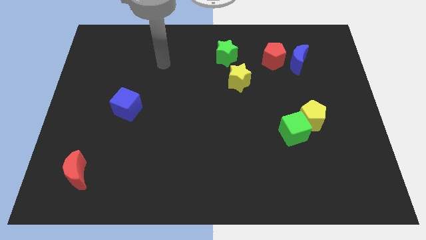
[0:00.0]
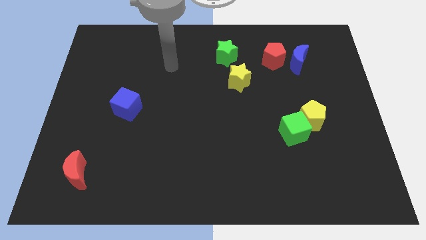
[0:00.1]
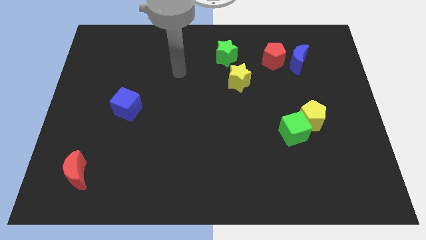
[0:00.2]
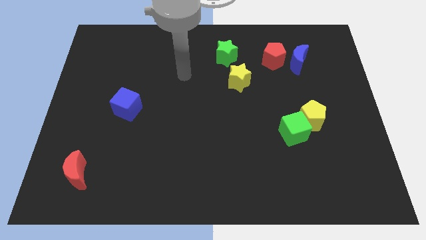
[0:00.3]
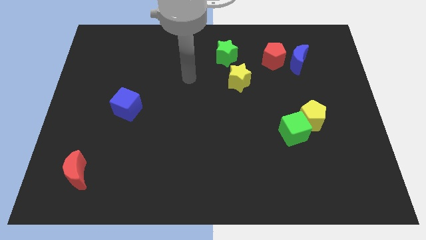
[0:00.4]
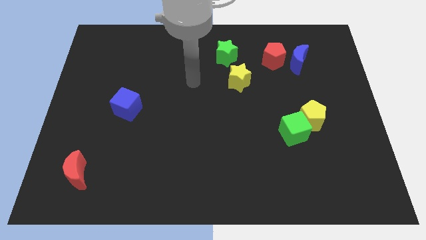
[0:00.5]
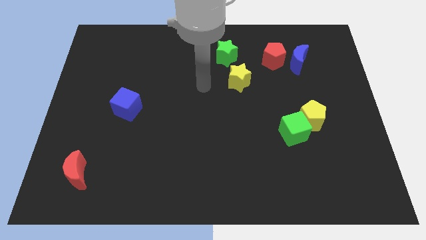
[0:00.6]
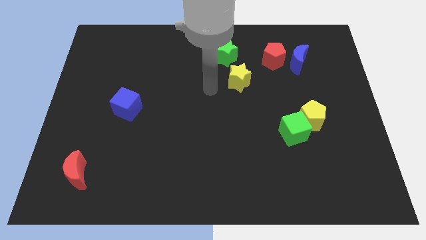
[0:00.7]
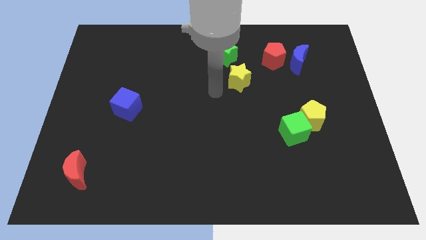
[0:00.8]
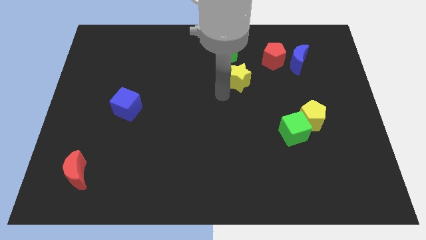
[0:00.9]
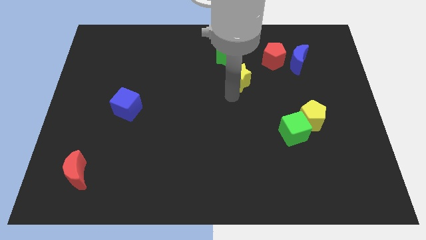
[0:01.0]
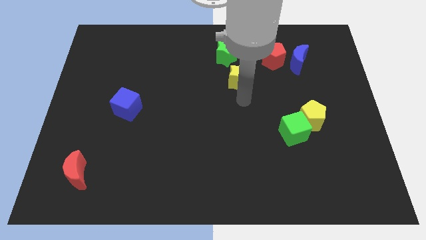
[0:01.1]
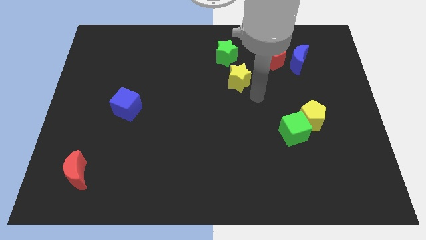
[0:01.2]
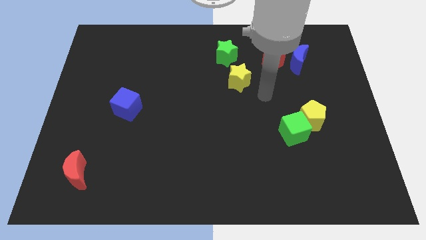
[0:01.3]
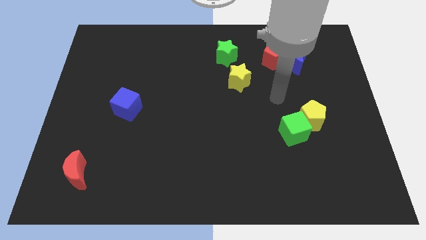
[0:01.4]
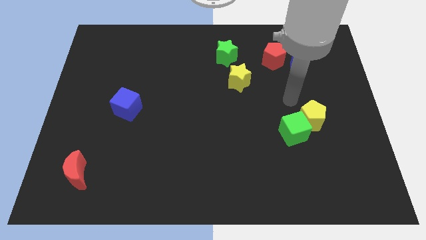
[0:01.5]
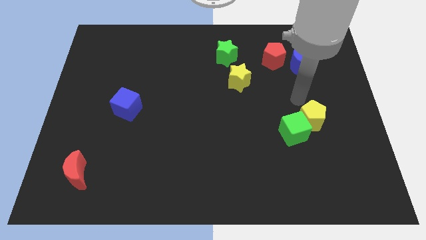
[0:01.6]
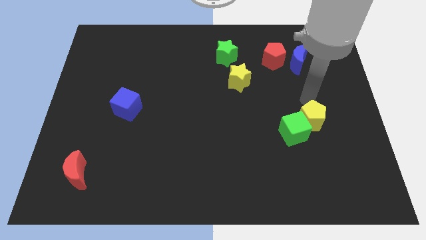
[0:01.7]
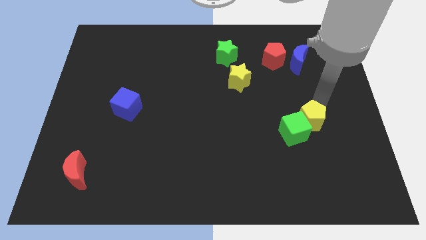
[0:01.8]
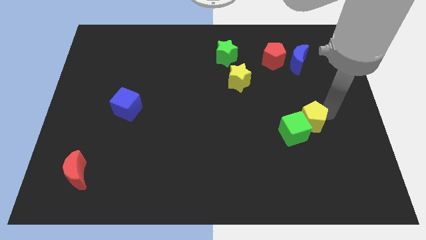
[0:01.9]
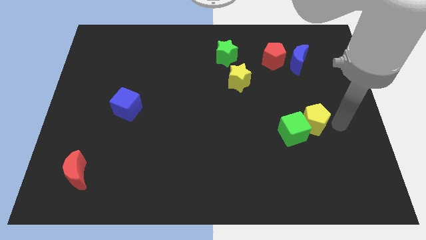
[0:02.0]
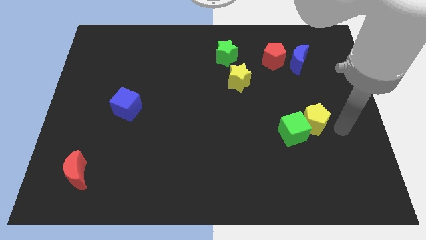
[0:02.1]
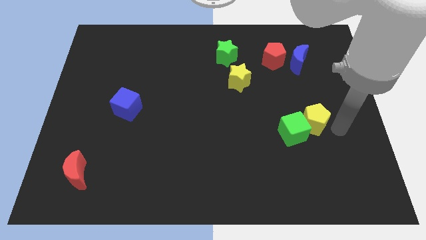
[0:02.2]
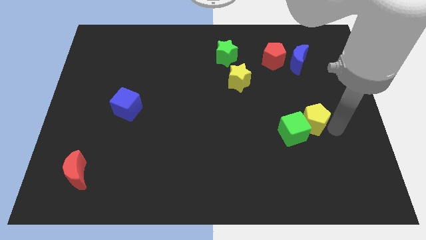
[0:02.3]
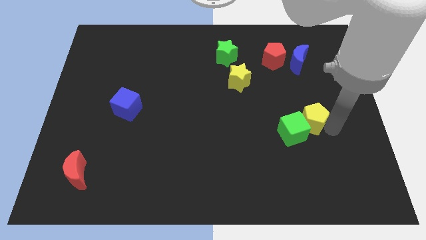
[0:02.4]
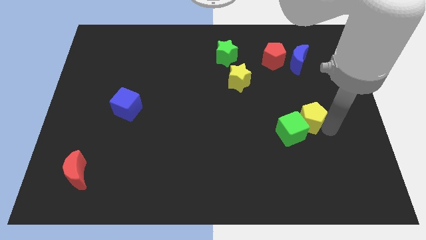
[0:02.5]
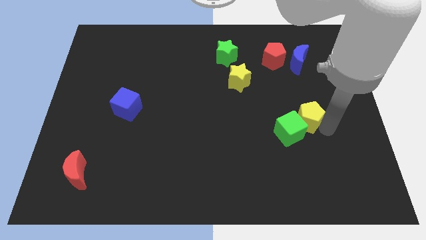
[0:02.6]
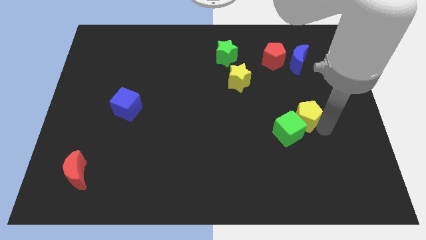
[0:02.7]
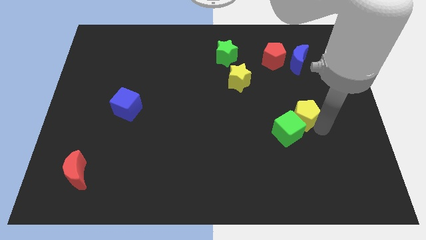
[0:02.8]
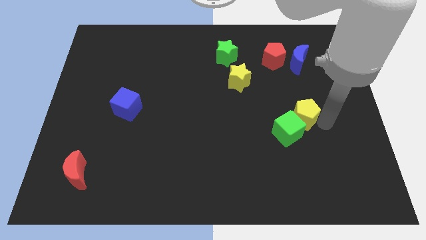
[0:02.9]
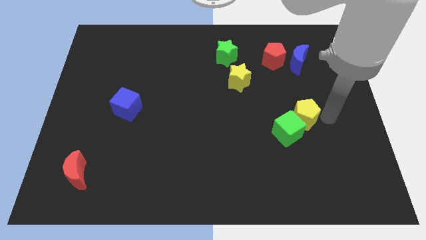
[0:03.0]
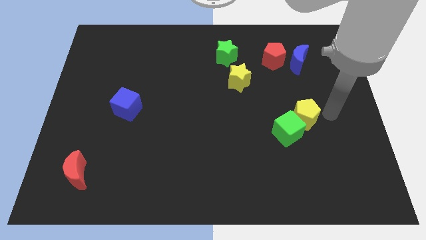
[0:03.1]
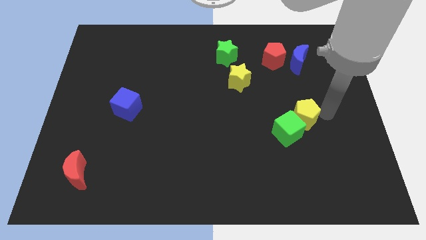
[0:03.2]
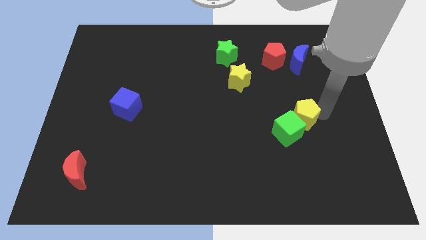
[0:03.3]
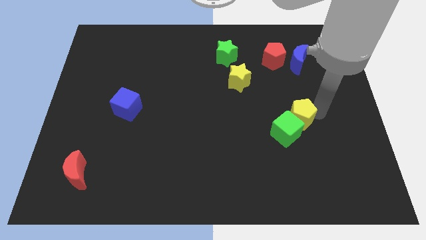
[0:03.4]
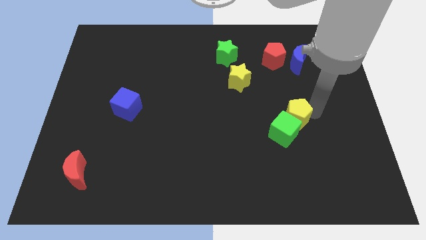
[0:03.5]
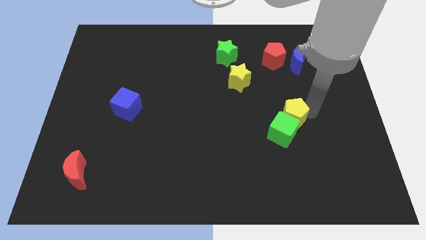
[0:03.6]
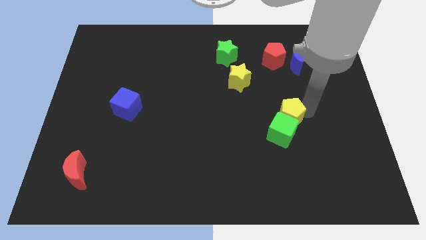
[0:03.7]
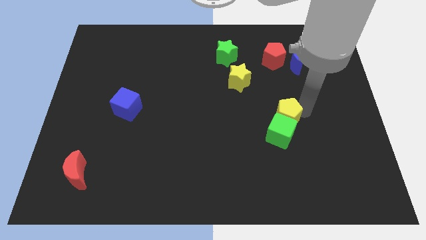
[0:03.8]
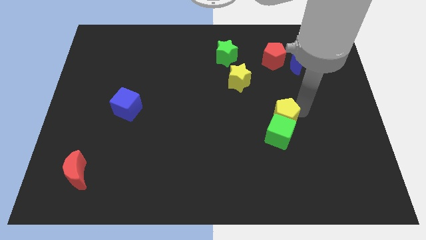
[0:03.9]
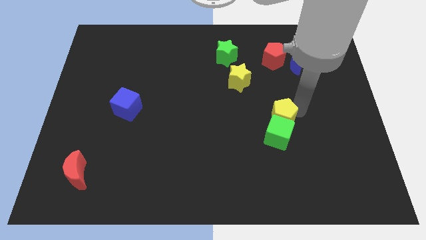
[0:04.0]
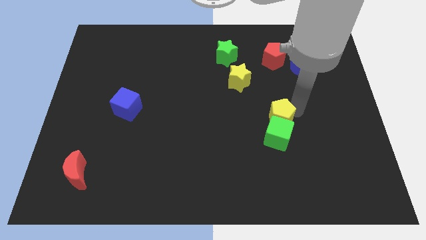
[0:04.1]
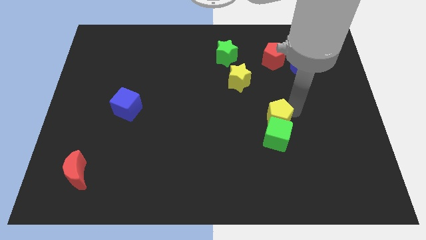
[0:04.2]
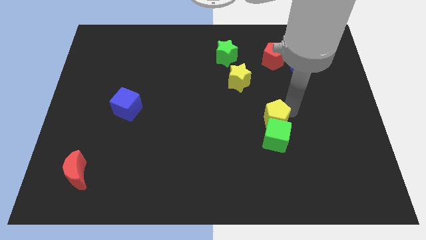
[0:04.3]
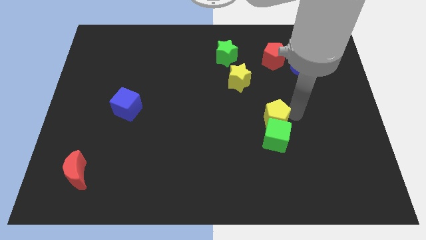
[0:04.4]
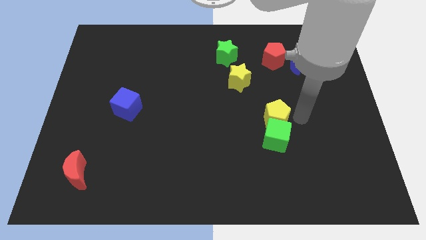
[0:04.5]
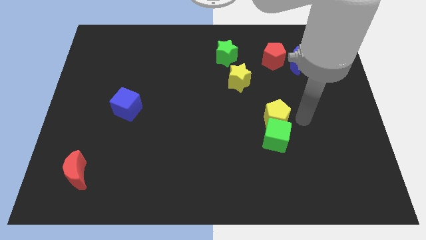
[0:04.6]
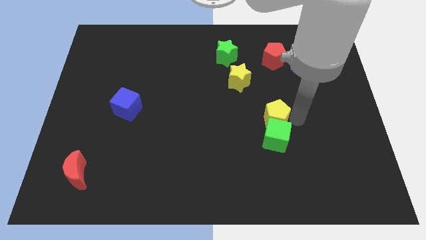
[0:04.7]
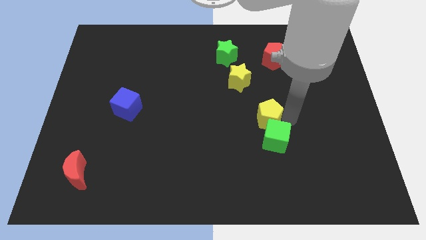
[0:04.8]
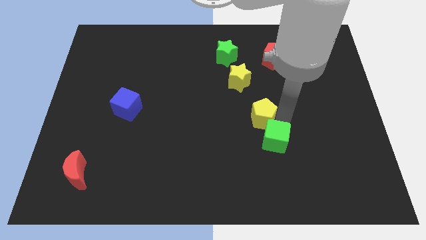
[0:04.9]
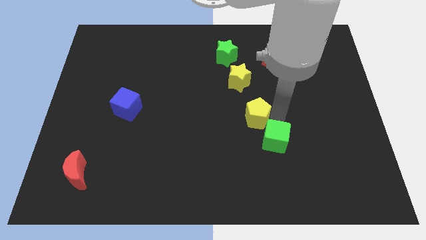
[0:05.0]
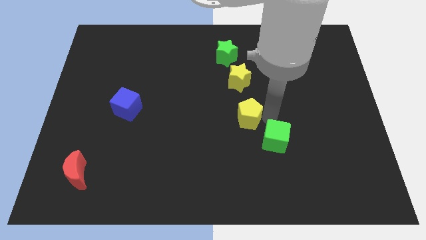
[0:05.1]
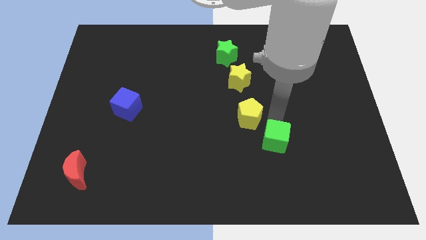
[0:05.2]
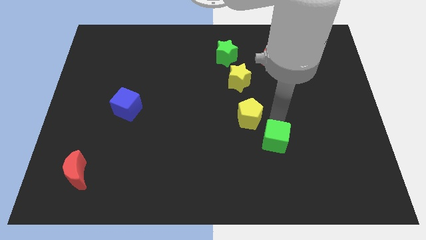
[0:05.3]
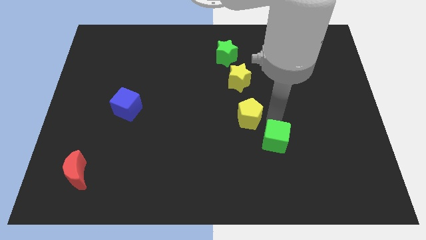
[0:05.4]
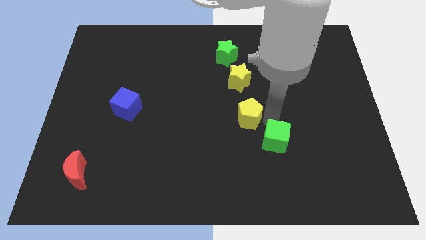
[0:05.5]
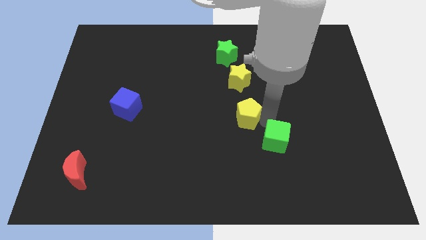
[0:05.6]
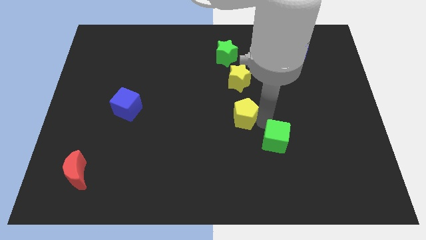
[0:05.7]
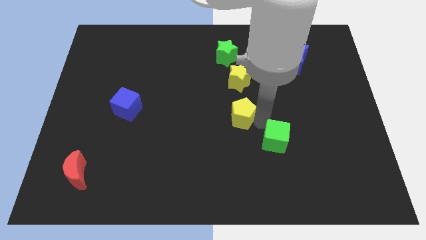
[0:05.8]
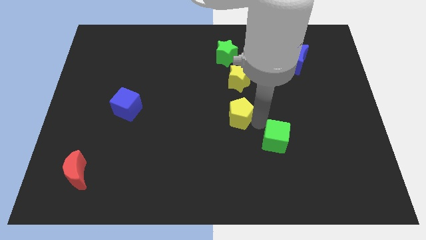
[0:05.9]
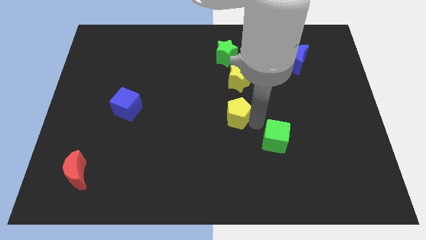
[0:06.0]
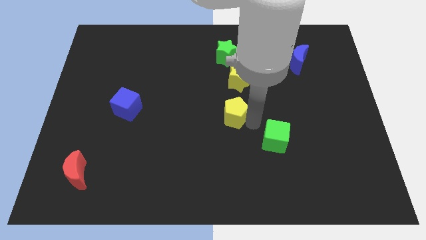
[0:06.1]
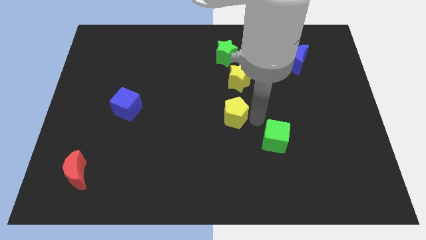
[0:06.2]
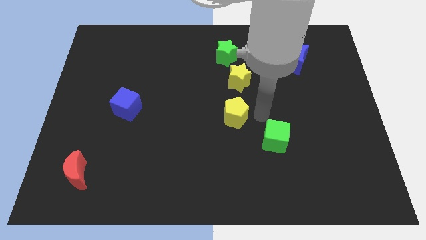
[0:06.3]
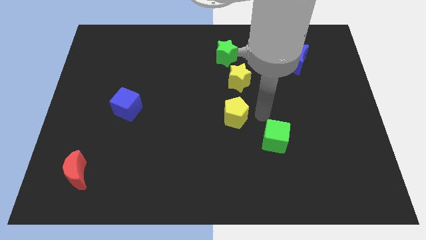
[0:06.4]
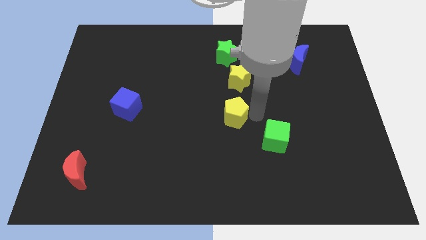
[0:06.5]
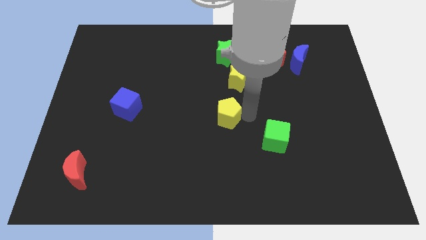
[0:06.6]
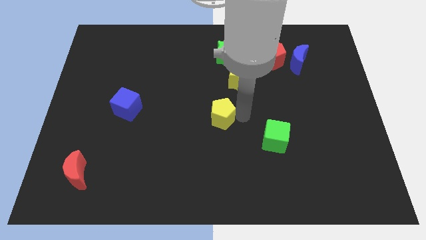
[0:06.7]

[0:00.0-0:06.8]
push the yellow pentagon to the left

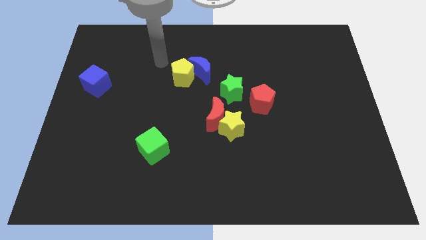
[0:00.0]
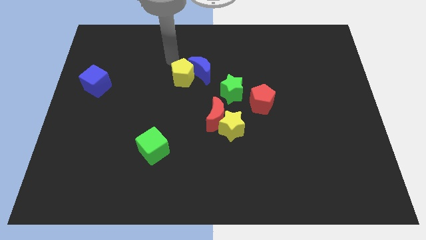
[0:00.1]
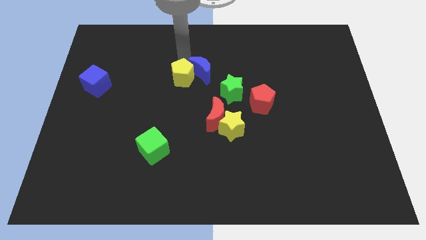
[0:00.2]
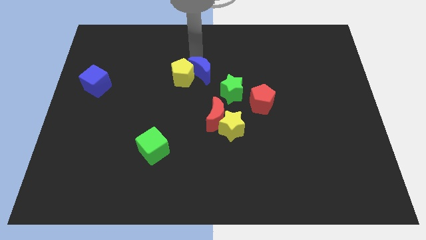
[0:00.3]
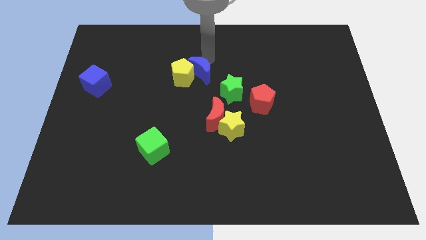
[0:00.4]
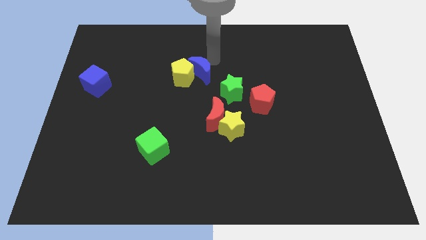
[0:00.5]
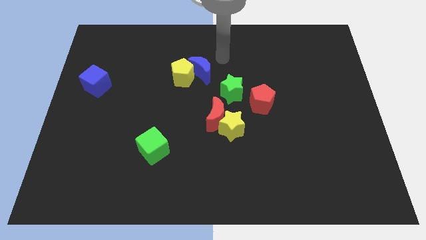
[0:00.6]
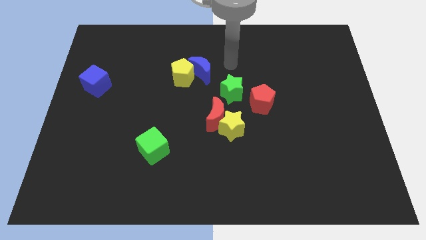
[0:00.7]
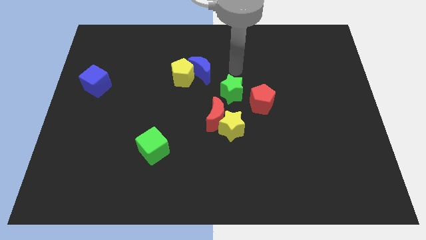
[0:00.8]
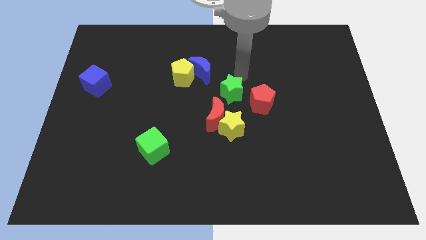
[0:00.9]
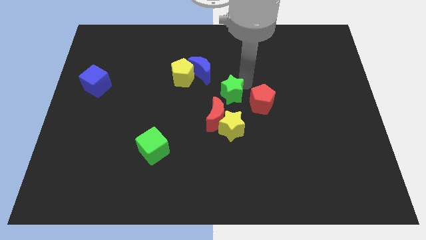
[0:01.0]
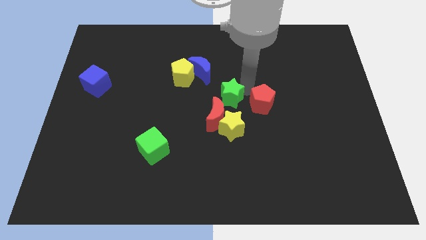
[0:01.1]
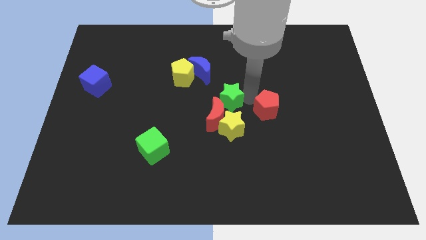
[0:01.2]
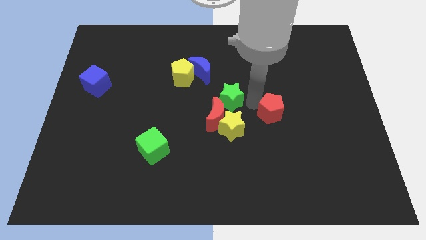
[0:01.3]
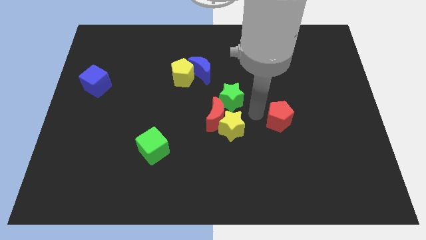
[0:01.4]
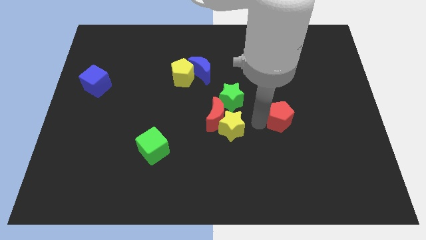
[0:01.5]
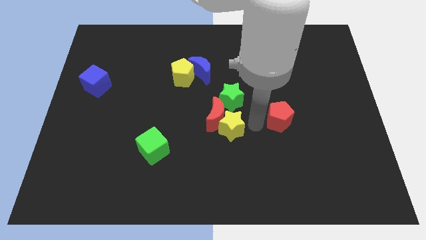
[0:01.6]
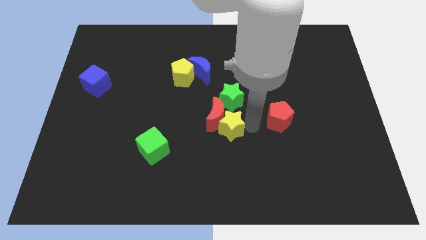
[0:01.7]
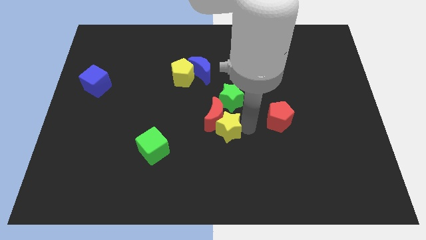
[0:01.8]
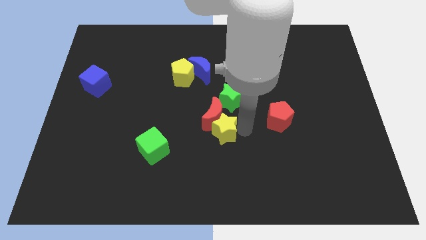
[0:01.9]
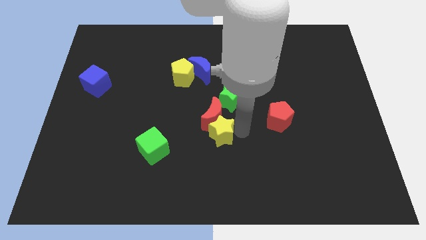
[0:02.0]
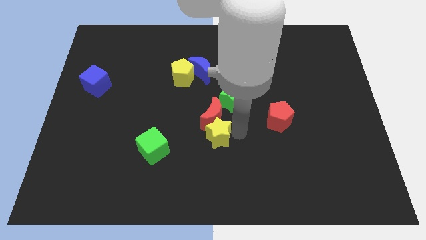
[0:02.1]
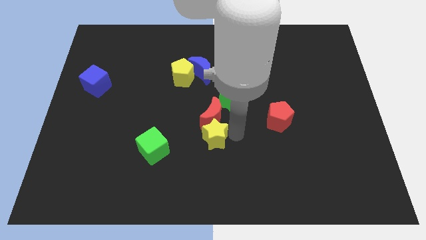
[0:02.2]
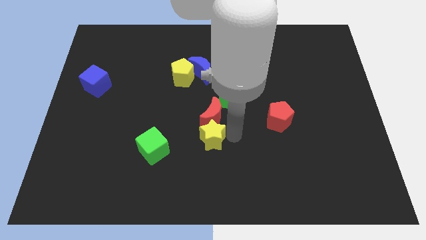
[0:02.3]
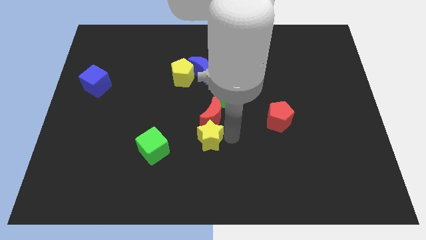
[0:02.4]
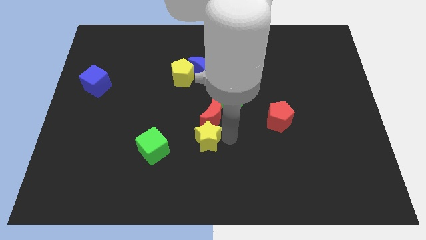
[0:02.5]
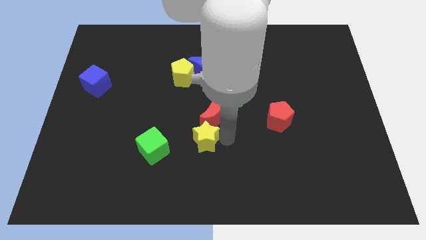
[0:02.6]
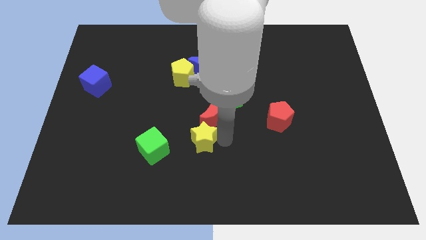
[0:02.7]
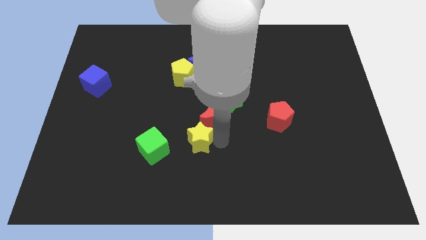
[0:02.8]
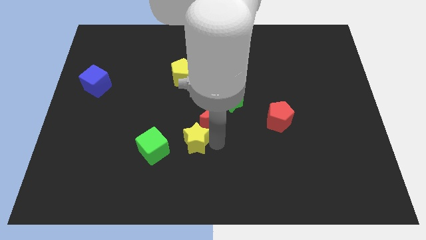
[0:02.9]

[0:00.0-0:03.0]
slide the yellow star somewhat left
